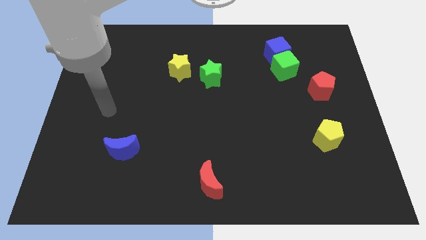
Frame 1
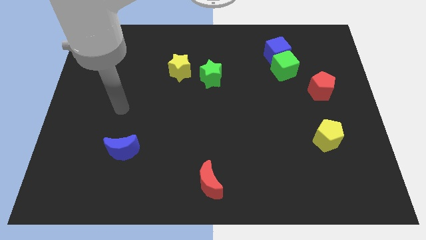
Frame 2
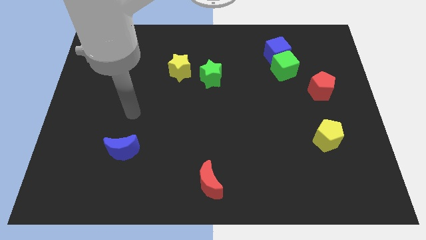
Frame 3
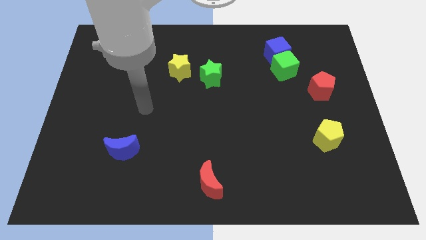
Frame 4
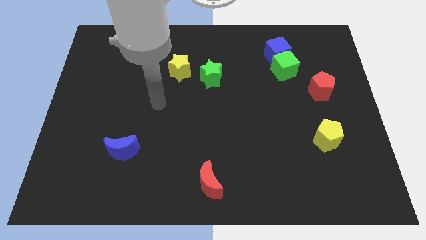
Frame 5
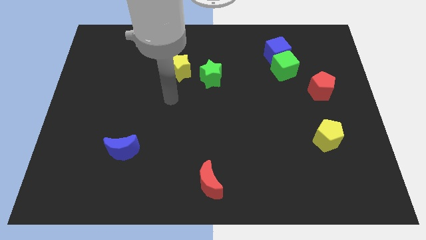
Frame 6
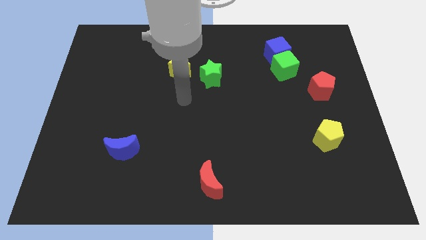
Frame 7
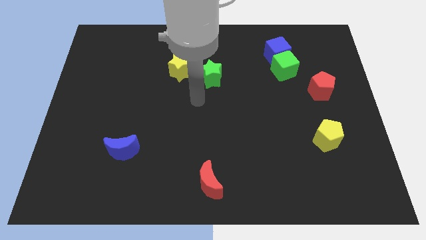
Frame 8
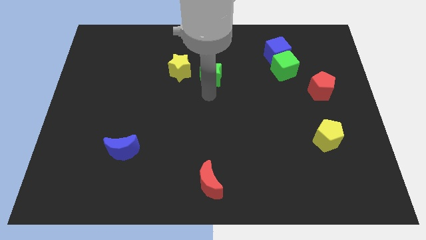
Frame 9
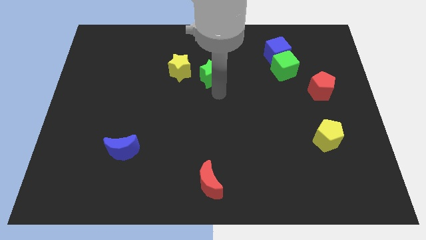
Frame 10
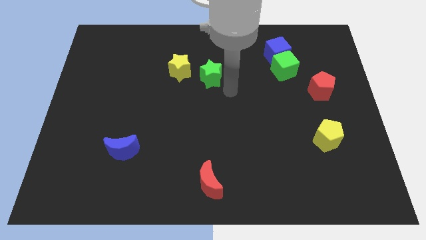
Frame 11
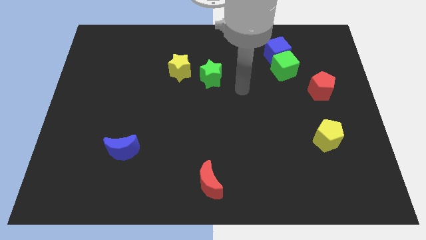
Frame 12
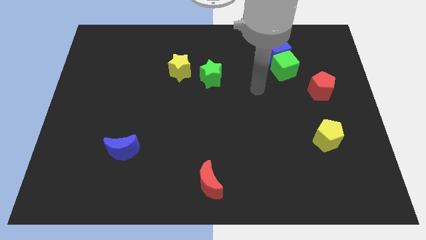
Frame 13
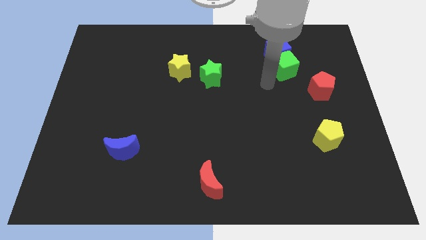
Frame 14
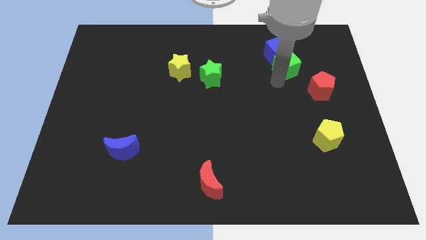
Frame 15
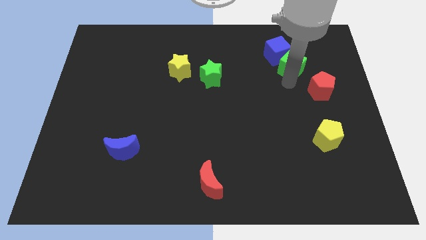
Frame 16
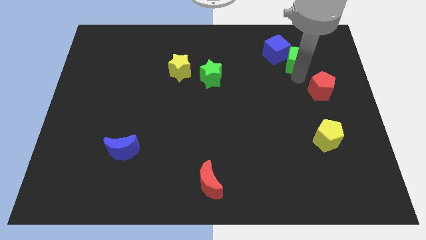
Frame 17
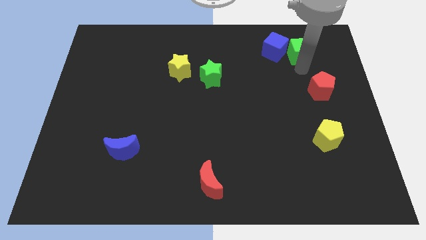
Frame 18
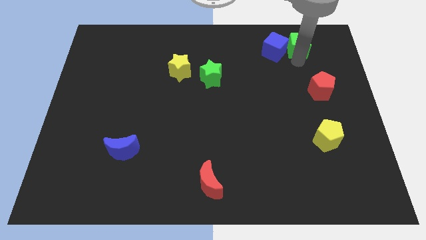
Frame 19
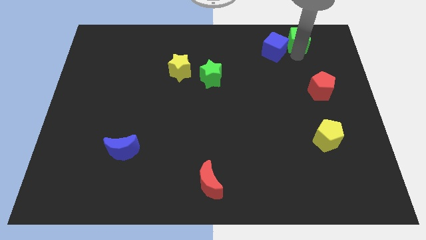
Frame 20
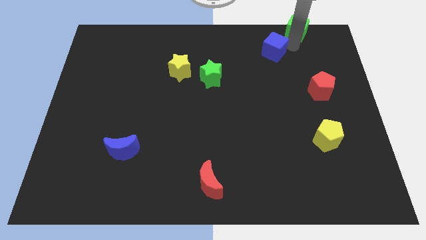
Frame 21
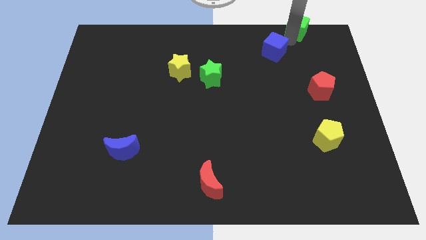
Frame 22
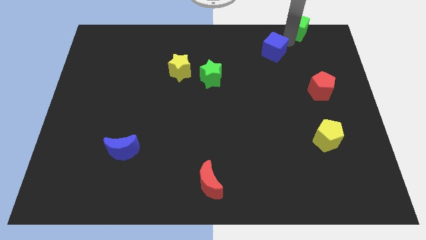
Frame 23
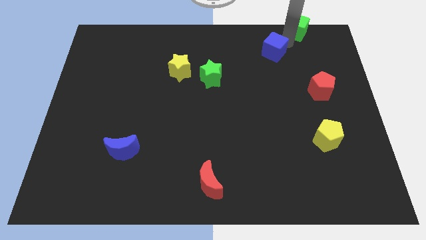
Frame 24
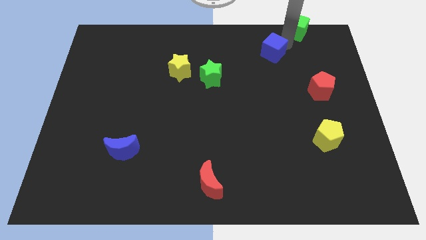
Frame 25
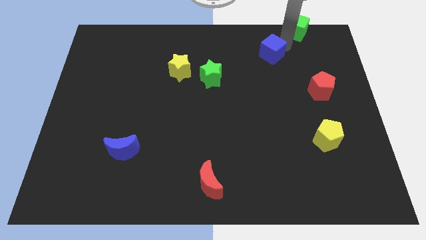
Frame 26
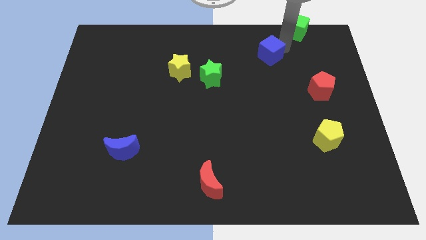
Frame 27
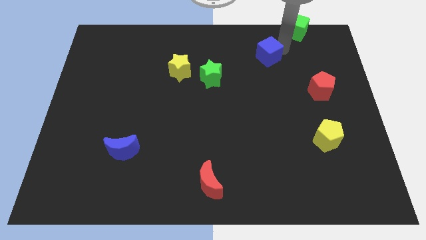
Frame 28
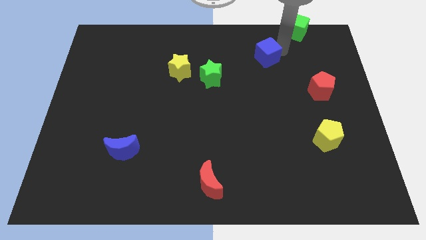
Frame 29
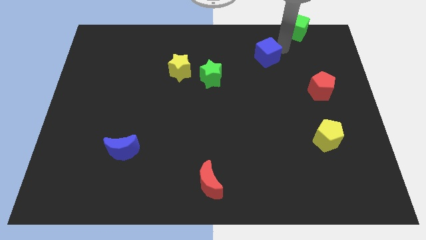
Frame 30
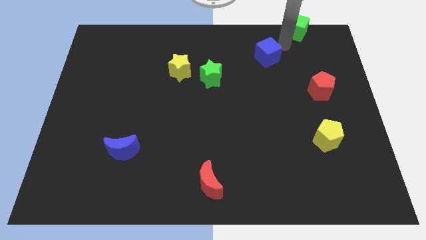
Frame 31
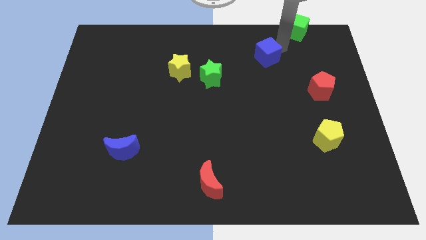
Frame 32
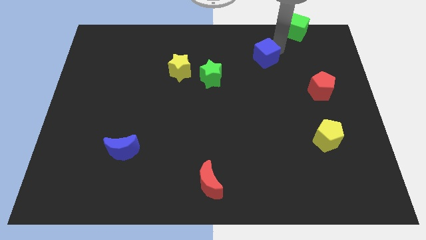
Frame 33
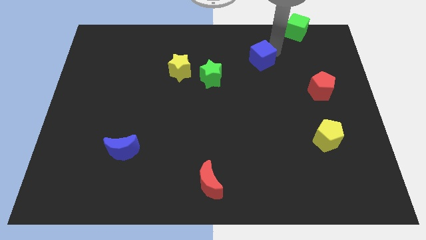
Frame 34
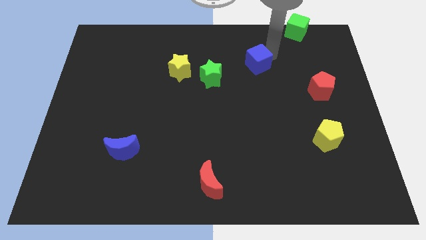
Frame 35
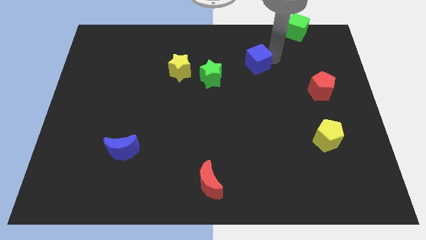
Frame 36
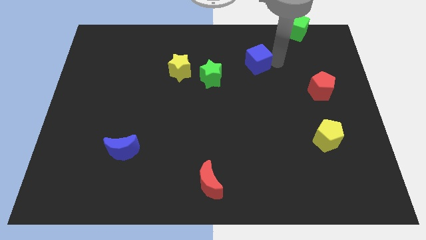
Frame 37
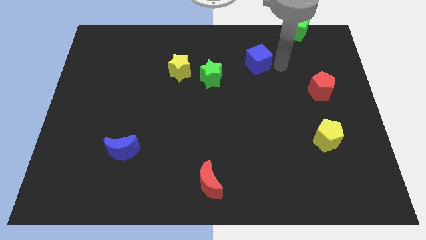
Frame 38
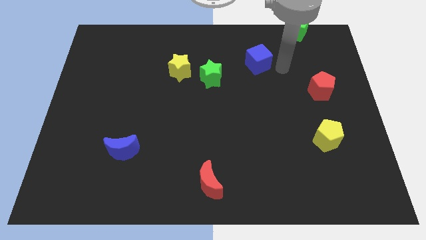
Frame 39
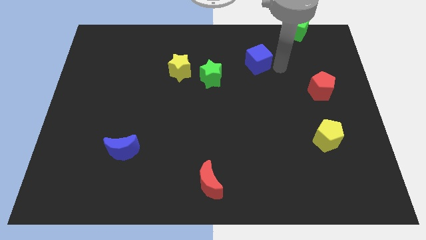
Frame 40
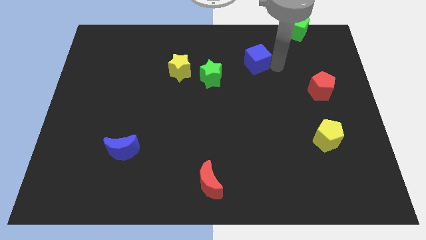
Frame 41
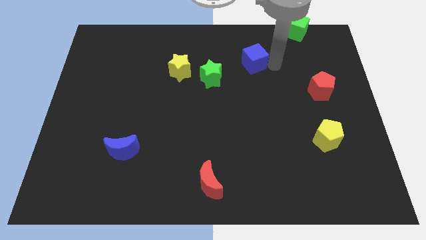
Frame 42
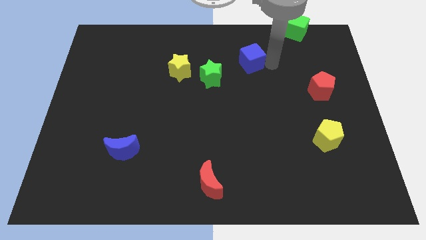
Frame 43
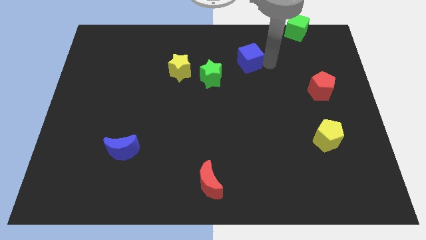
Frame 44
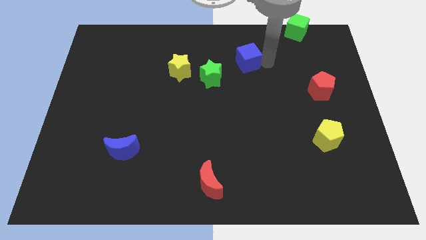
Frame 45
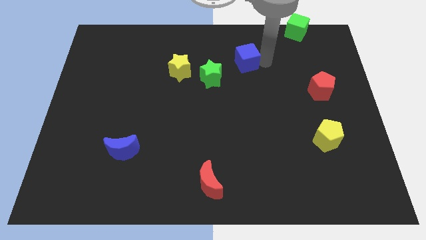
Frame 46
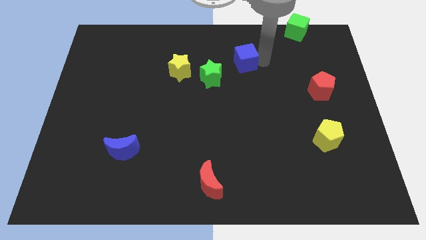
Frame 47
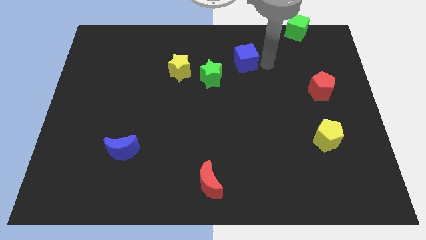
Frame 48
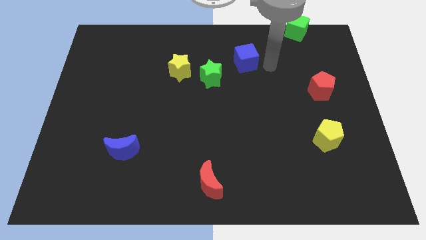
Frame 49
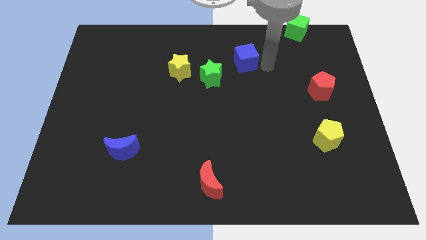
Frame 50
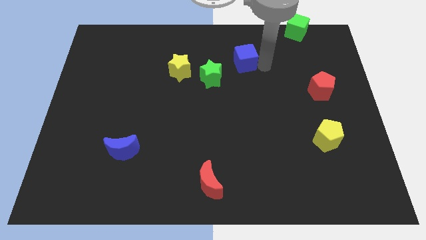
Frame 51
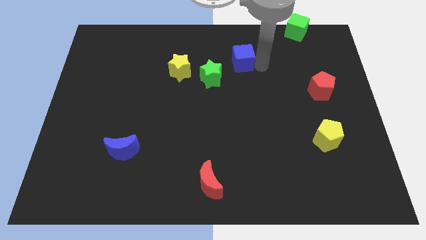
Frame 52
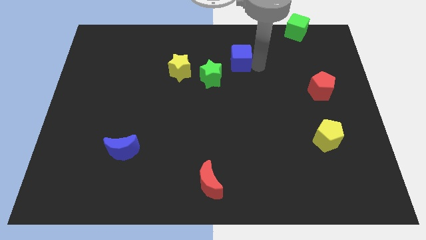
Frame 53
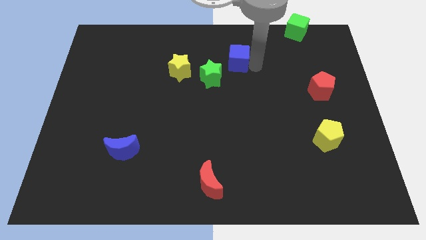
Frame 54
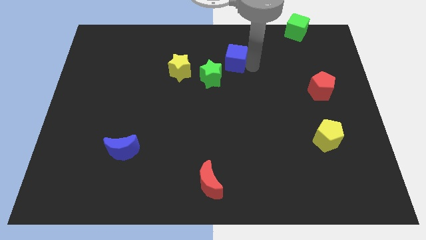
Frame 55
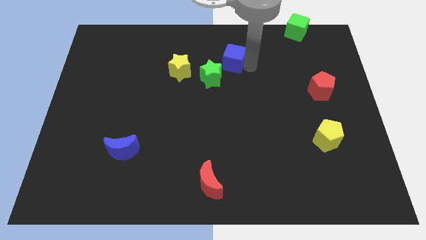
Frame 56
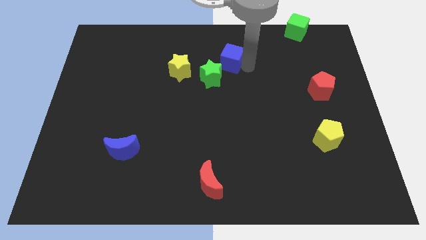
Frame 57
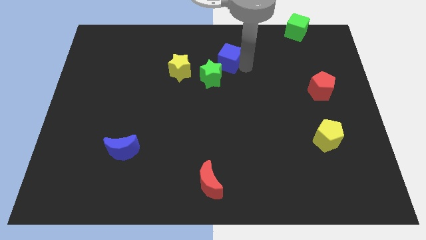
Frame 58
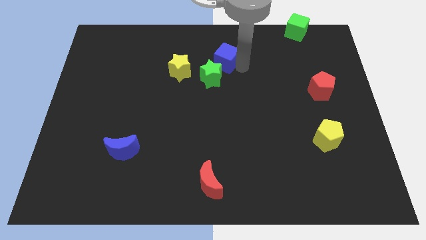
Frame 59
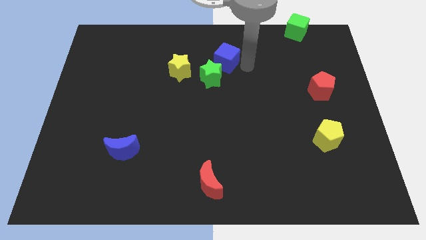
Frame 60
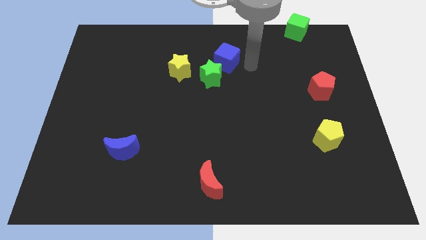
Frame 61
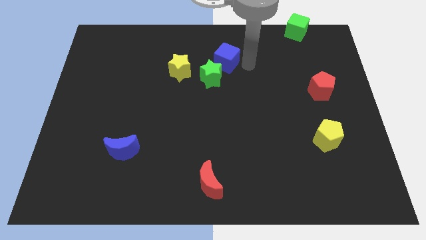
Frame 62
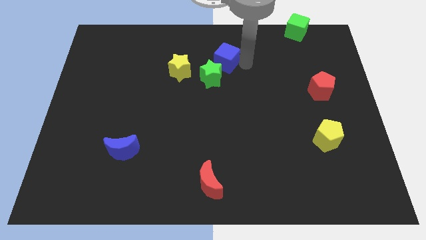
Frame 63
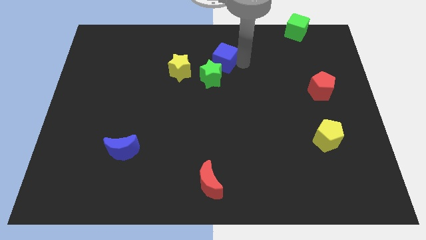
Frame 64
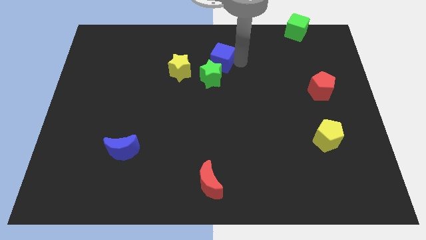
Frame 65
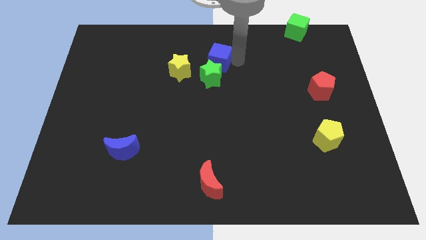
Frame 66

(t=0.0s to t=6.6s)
push the blue cube diagonally up and to the right of the yellow star

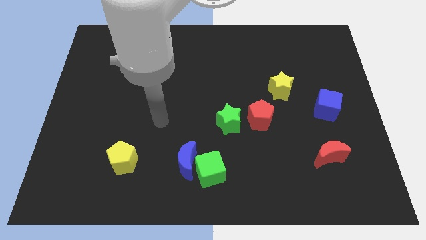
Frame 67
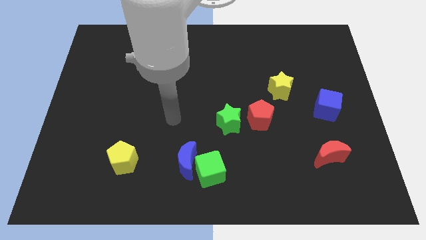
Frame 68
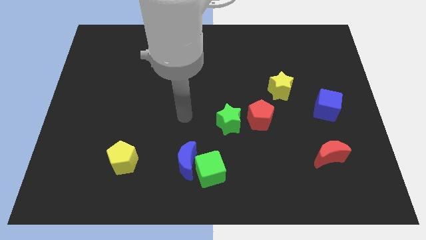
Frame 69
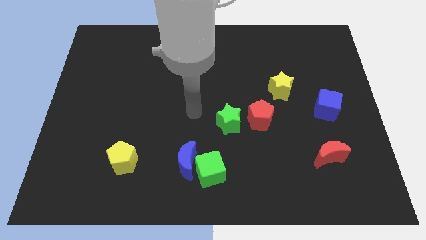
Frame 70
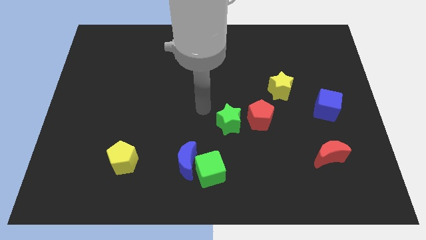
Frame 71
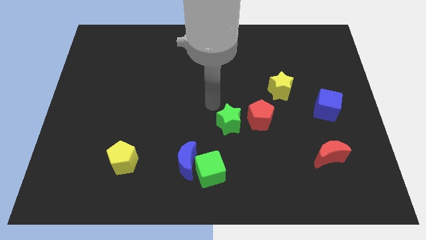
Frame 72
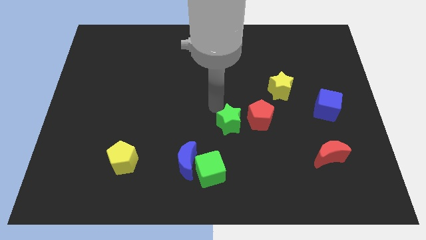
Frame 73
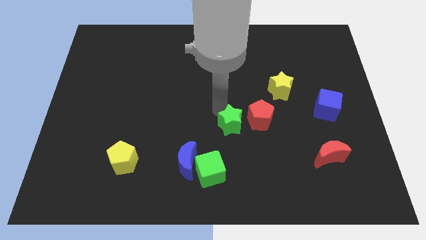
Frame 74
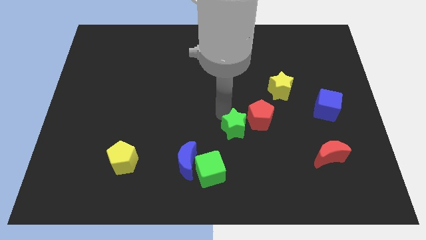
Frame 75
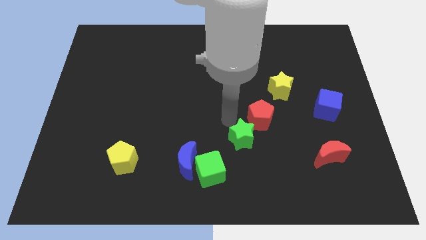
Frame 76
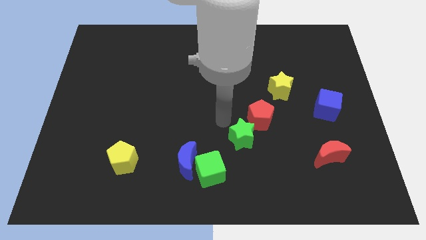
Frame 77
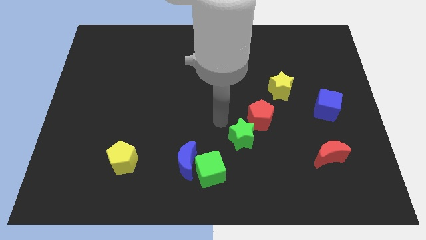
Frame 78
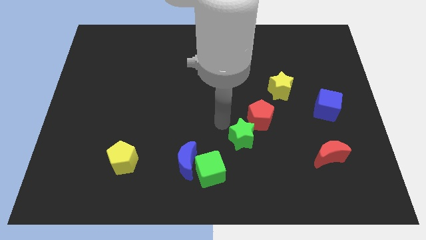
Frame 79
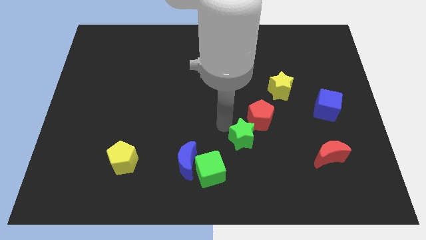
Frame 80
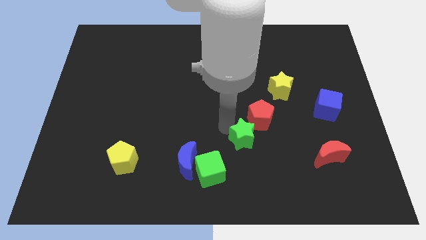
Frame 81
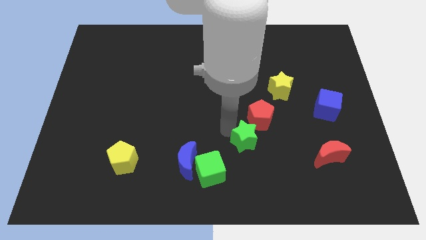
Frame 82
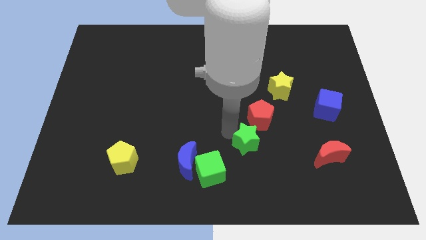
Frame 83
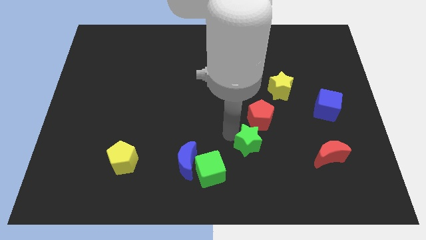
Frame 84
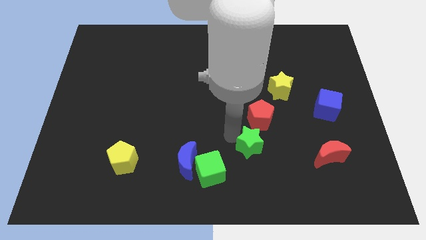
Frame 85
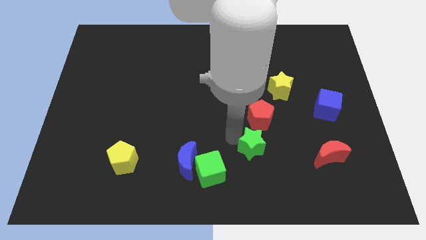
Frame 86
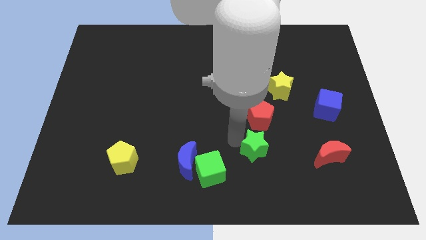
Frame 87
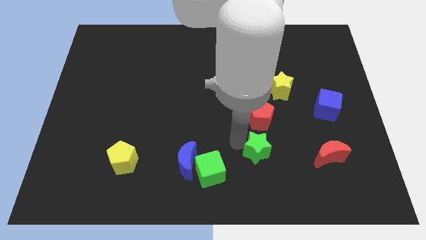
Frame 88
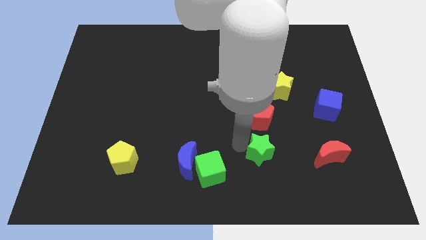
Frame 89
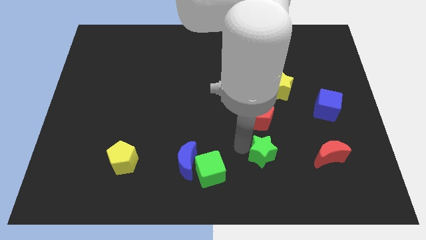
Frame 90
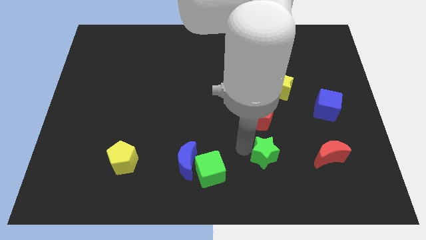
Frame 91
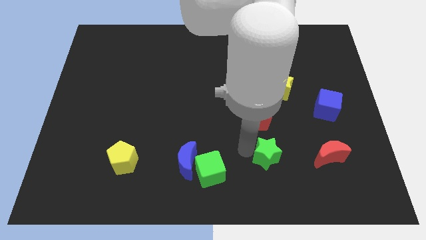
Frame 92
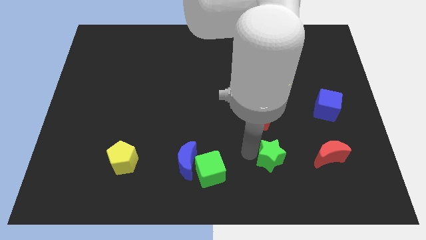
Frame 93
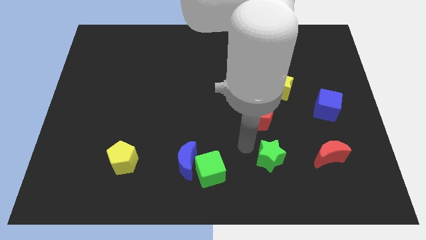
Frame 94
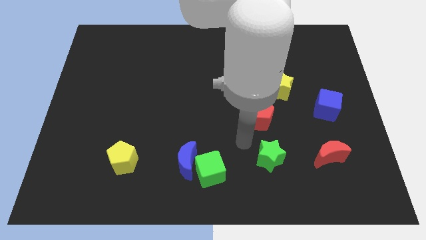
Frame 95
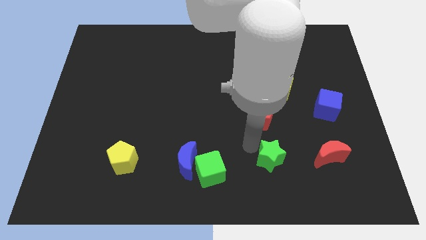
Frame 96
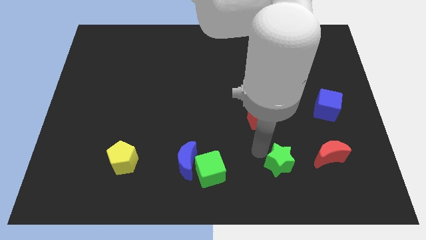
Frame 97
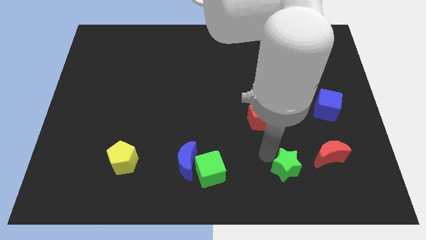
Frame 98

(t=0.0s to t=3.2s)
slide the green star diagonally down and to the left of the red moon
